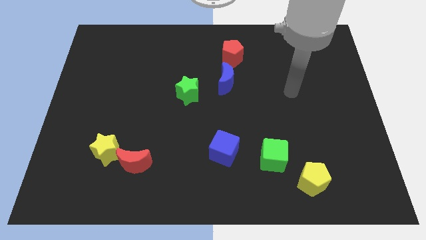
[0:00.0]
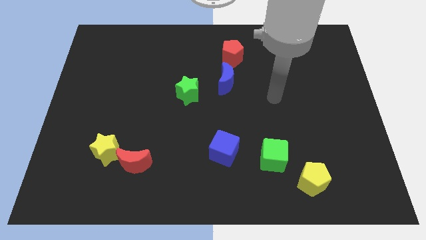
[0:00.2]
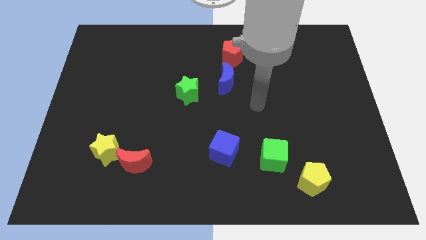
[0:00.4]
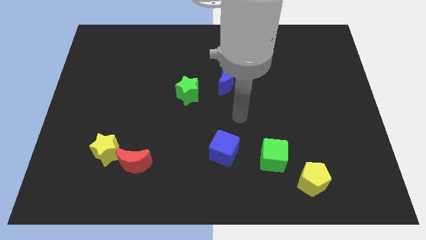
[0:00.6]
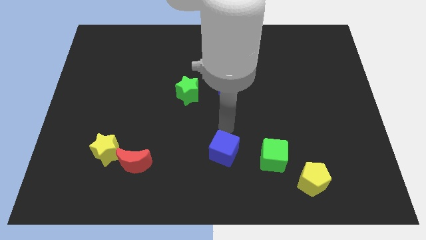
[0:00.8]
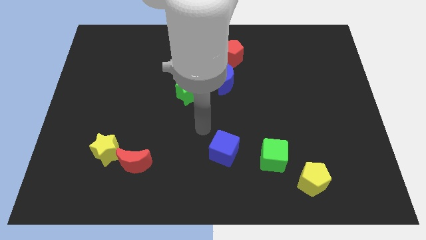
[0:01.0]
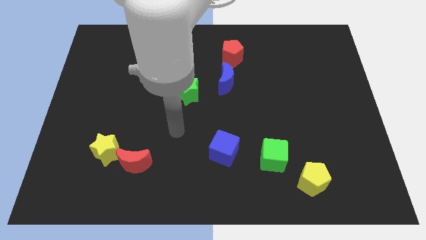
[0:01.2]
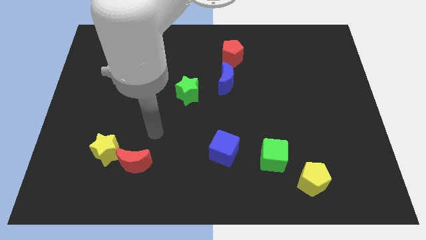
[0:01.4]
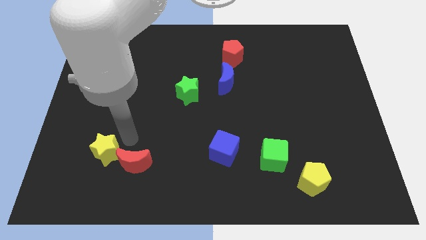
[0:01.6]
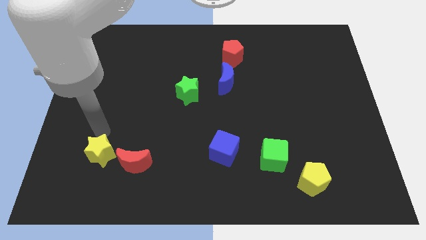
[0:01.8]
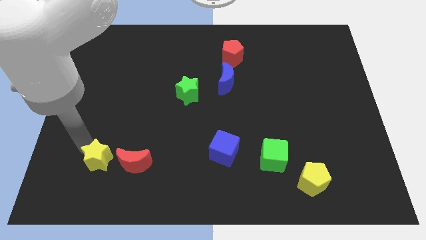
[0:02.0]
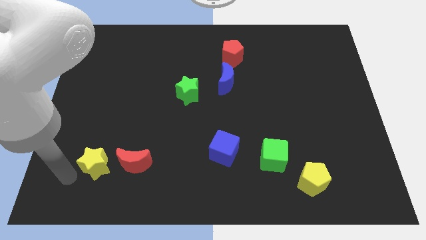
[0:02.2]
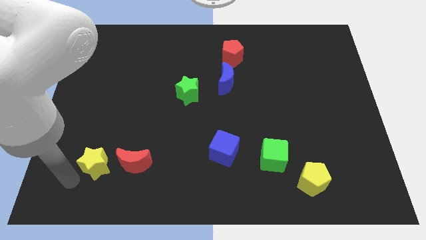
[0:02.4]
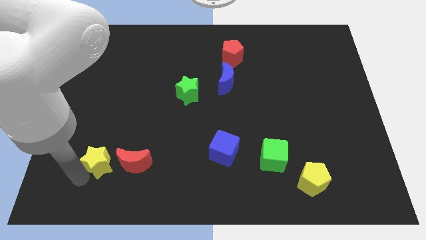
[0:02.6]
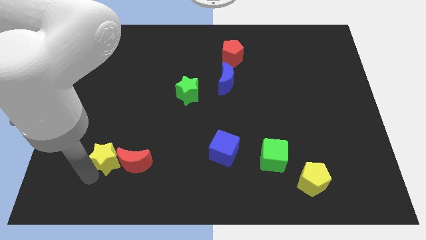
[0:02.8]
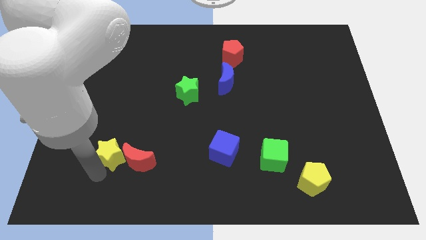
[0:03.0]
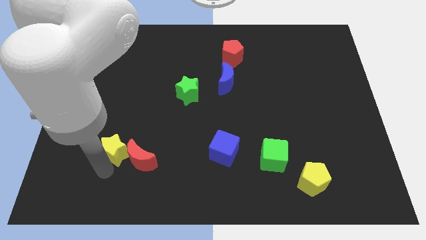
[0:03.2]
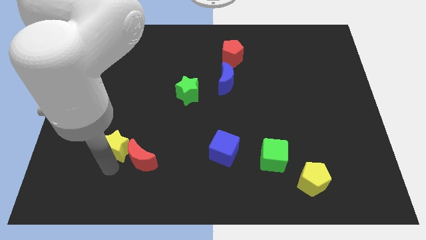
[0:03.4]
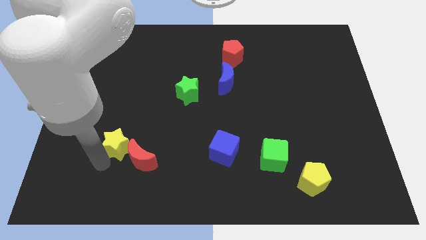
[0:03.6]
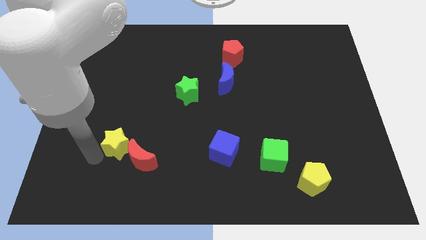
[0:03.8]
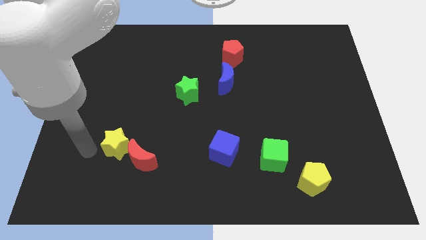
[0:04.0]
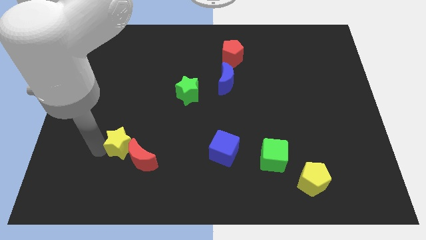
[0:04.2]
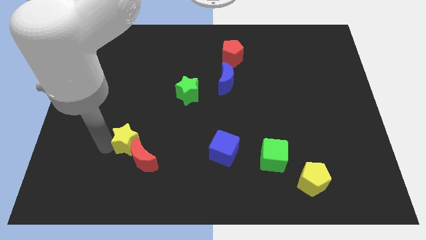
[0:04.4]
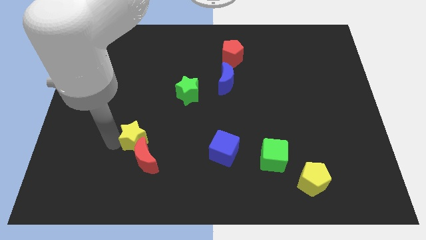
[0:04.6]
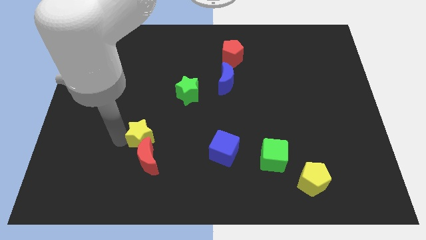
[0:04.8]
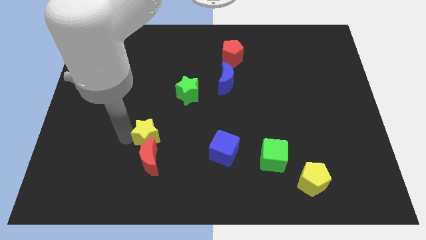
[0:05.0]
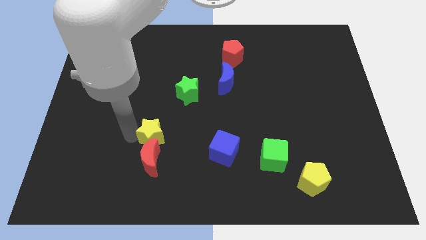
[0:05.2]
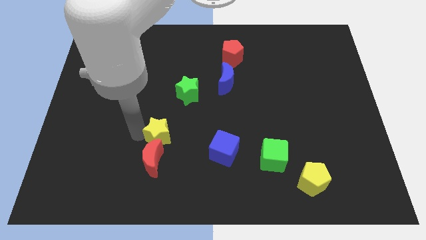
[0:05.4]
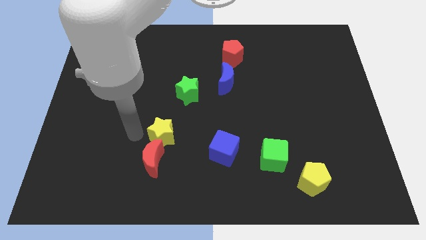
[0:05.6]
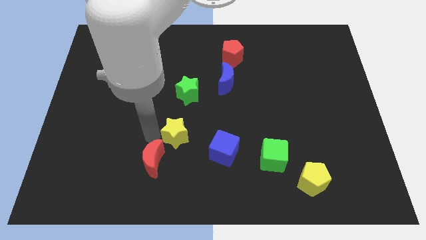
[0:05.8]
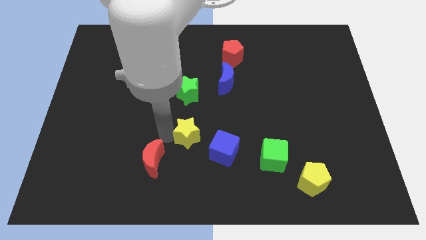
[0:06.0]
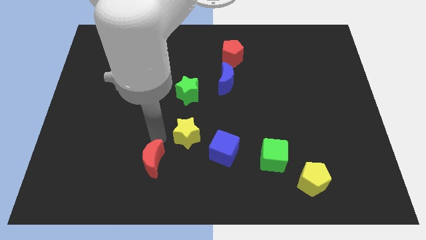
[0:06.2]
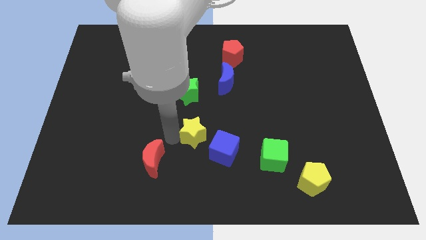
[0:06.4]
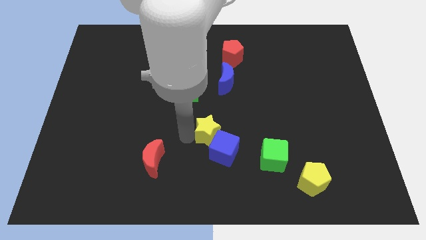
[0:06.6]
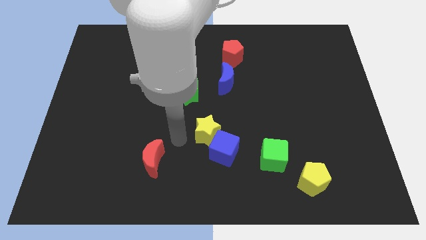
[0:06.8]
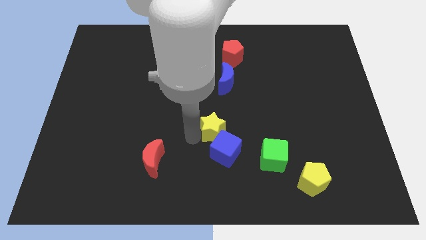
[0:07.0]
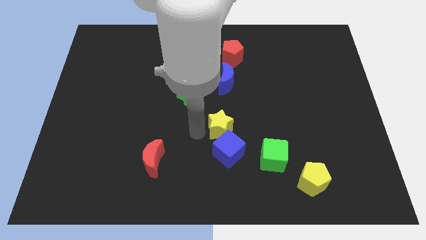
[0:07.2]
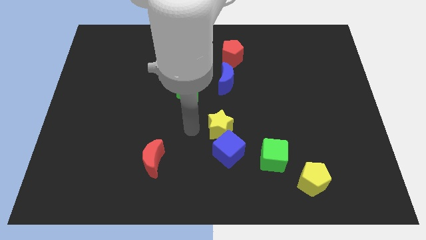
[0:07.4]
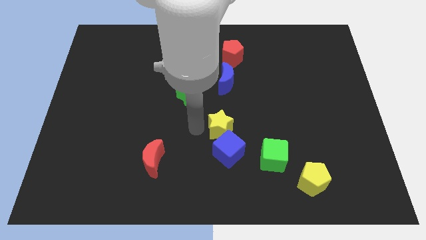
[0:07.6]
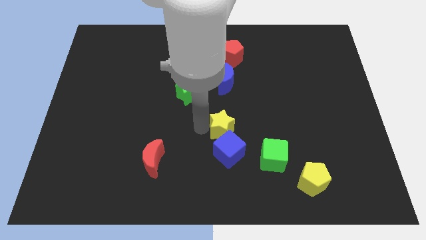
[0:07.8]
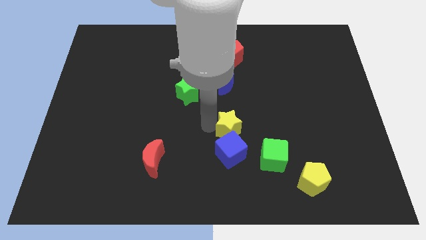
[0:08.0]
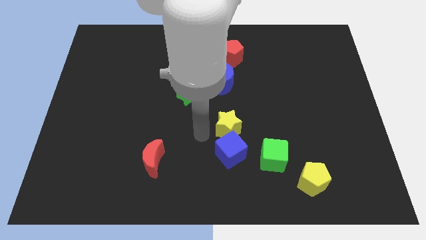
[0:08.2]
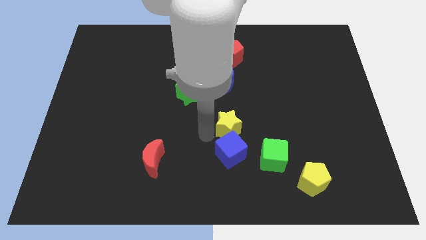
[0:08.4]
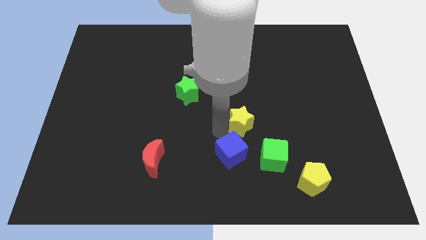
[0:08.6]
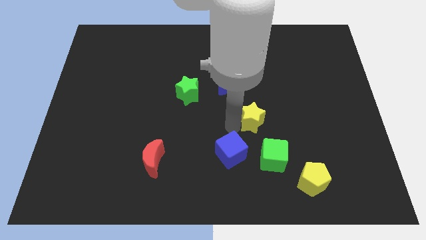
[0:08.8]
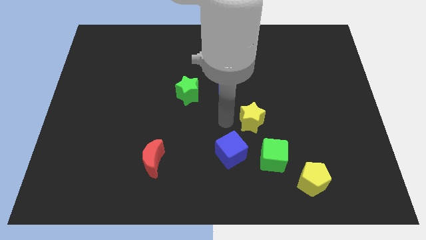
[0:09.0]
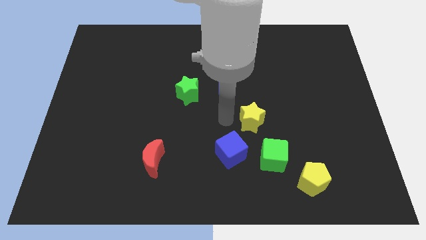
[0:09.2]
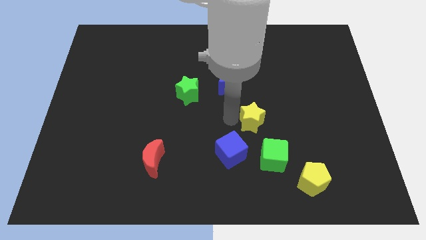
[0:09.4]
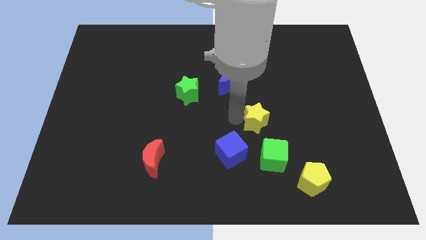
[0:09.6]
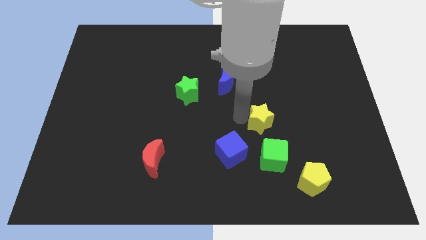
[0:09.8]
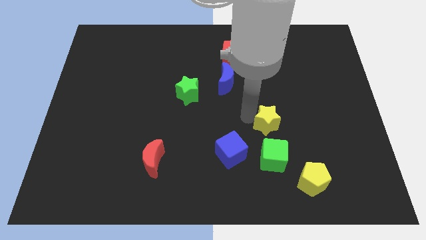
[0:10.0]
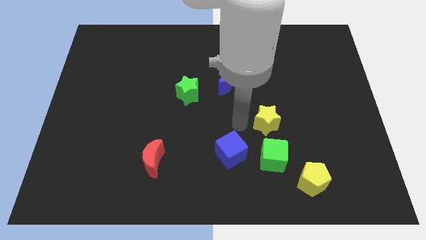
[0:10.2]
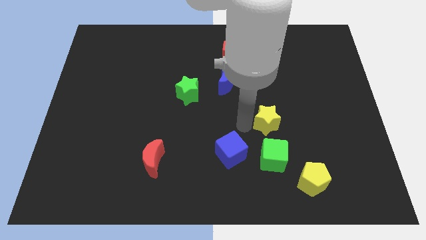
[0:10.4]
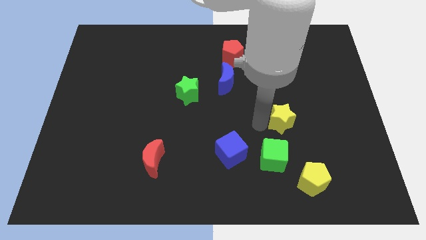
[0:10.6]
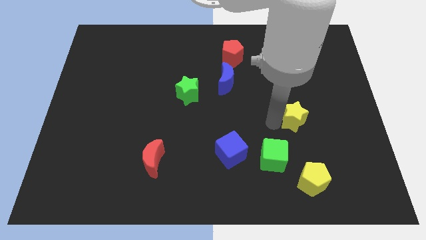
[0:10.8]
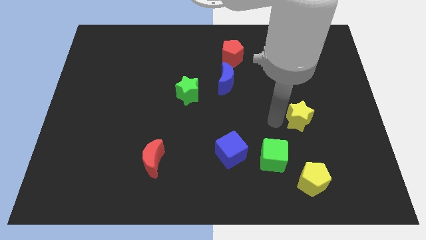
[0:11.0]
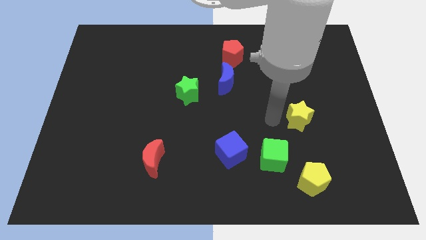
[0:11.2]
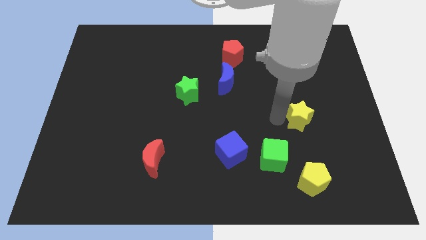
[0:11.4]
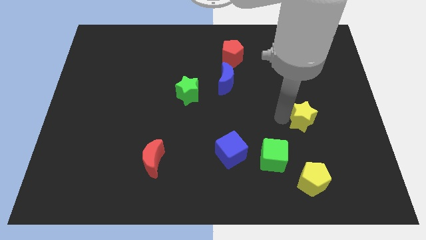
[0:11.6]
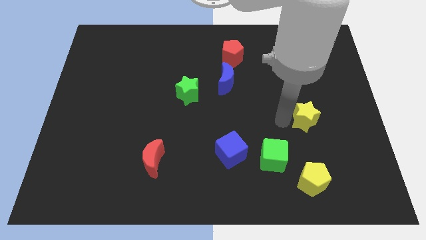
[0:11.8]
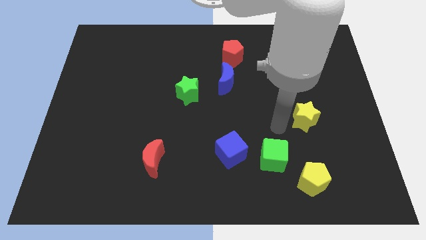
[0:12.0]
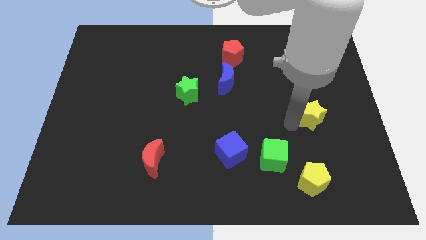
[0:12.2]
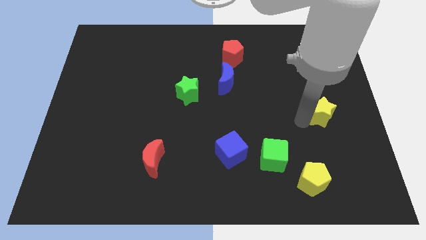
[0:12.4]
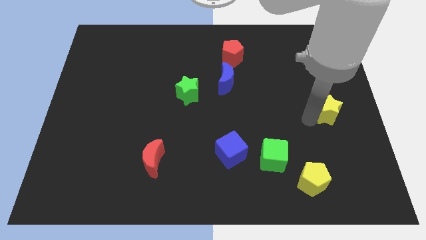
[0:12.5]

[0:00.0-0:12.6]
move the yellow star to the right side
